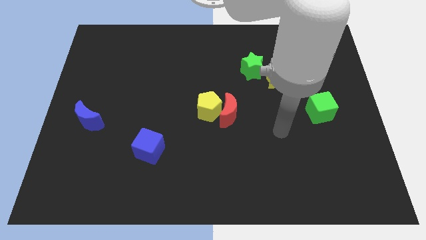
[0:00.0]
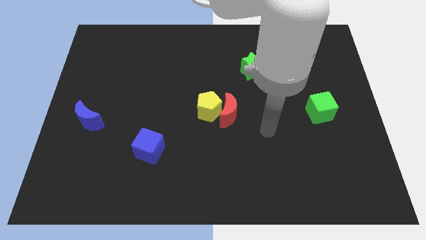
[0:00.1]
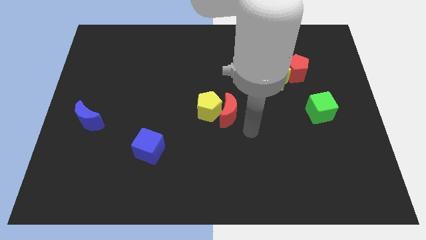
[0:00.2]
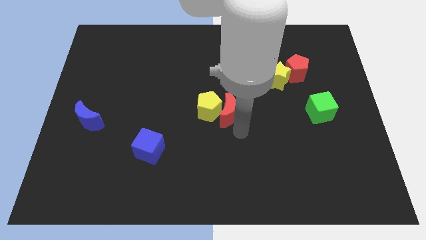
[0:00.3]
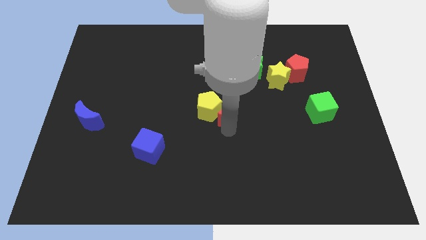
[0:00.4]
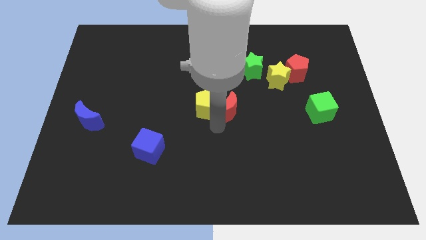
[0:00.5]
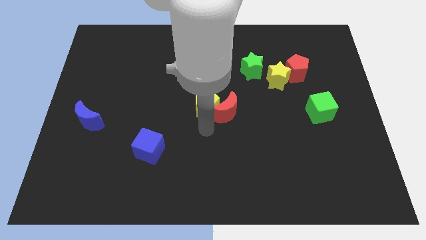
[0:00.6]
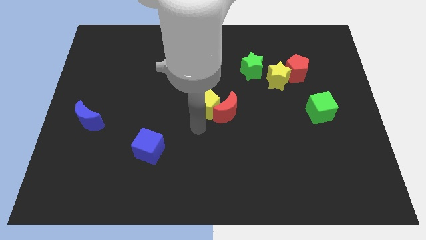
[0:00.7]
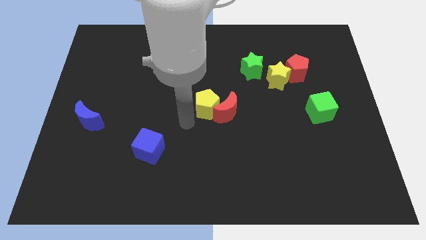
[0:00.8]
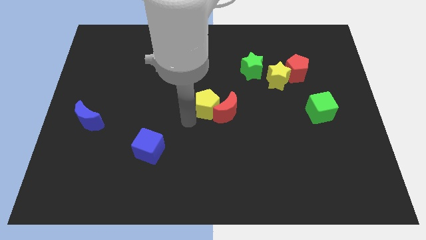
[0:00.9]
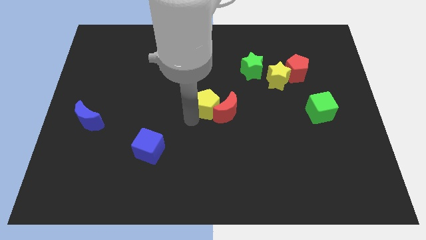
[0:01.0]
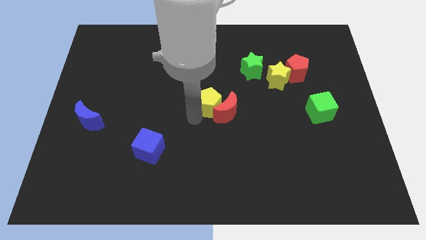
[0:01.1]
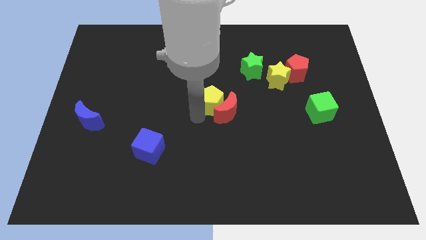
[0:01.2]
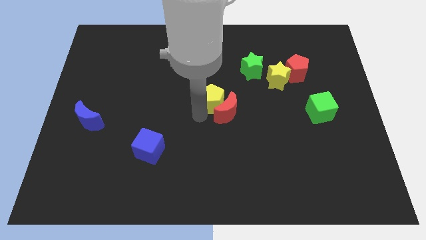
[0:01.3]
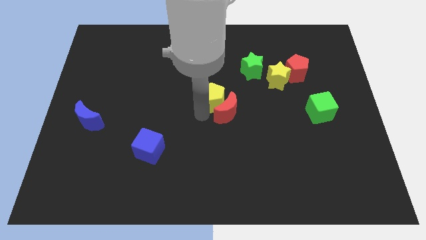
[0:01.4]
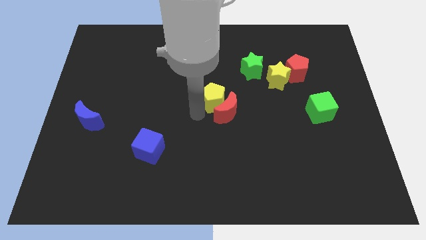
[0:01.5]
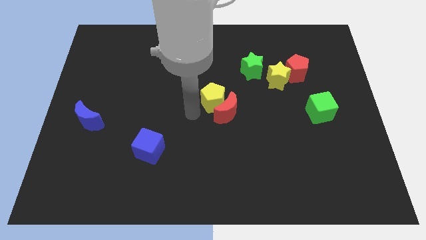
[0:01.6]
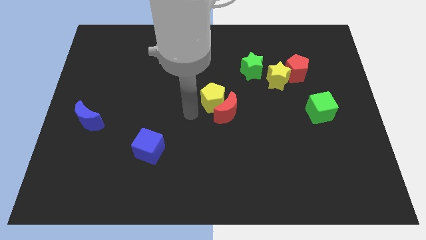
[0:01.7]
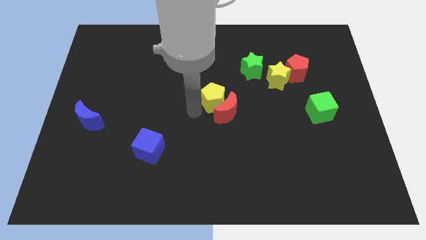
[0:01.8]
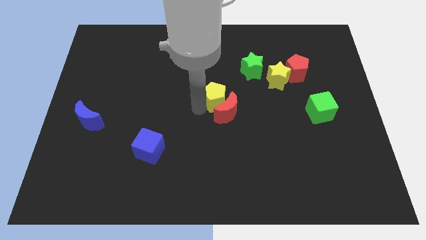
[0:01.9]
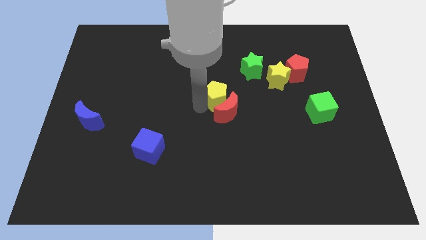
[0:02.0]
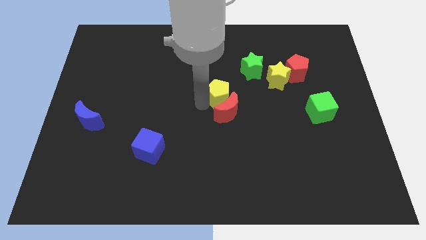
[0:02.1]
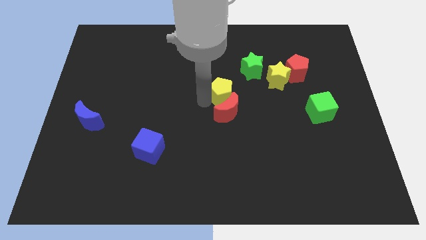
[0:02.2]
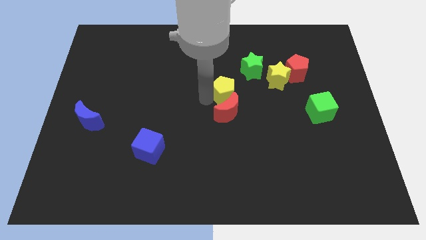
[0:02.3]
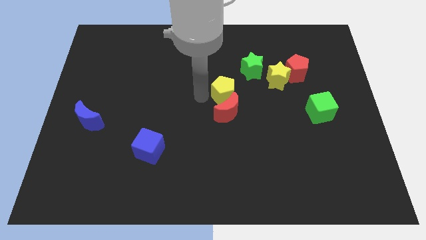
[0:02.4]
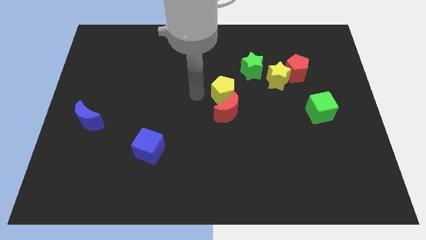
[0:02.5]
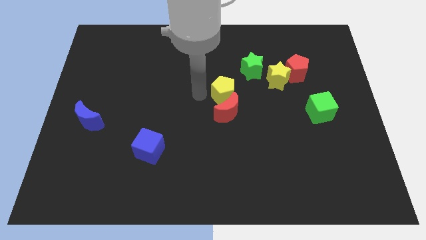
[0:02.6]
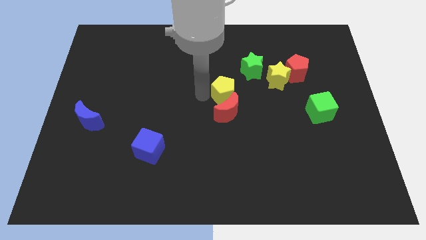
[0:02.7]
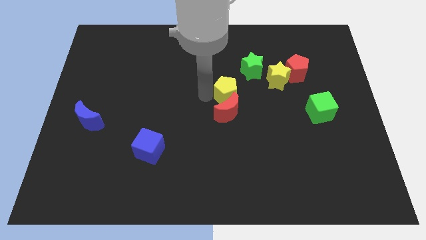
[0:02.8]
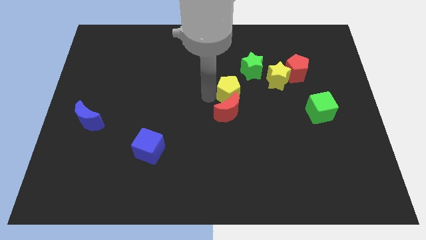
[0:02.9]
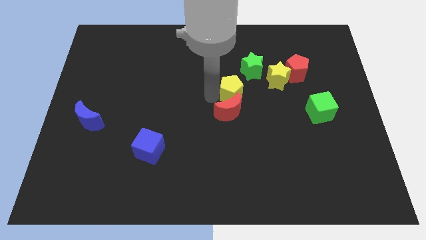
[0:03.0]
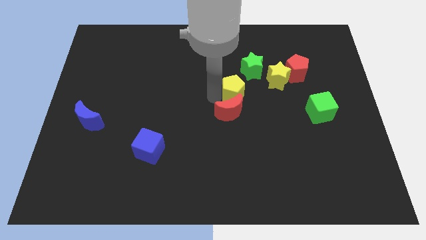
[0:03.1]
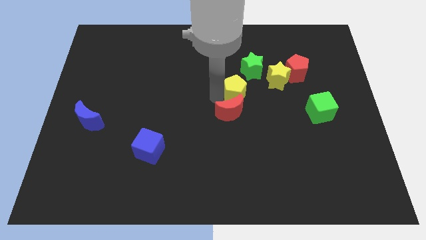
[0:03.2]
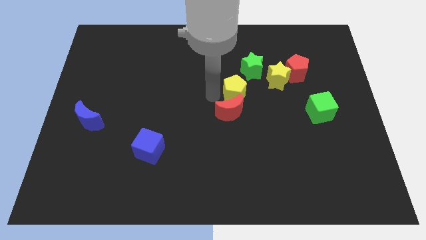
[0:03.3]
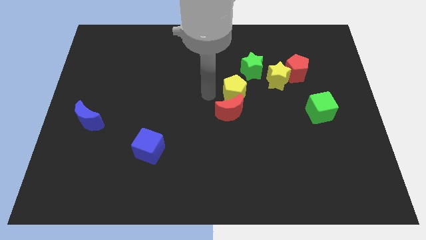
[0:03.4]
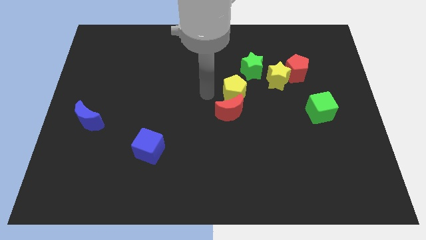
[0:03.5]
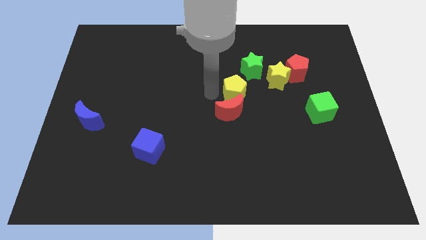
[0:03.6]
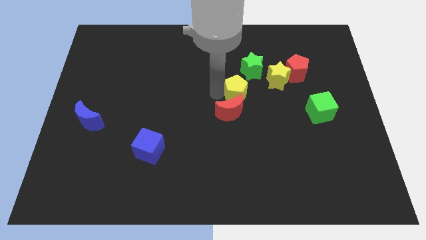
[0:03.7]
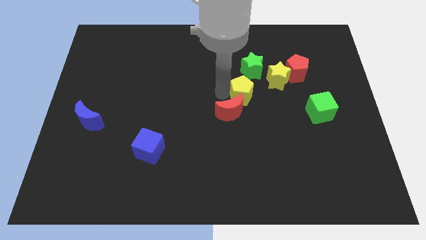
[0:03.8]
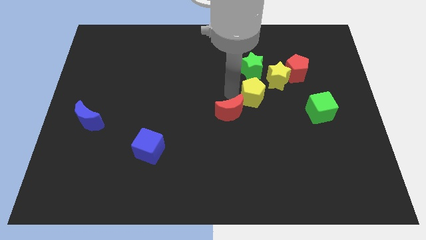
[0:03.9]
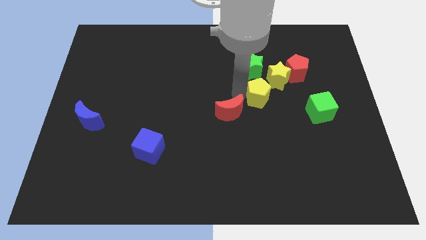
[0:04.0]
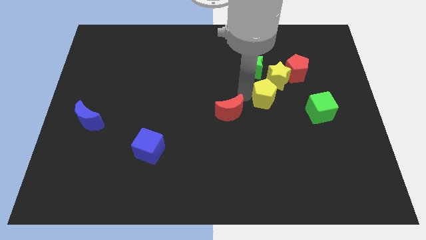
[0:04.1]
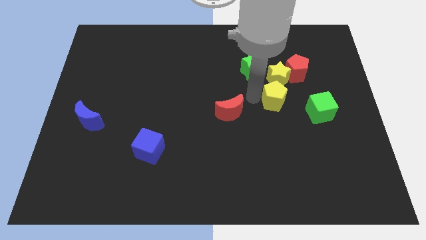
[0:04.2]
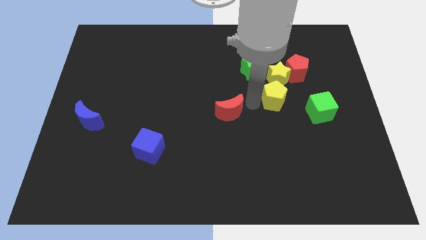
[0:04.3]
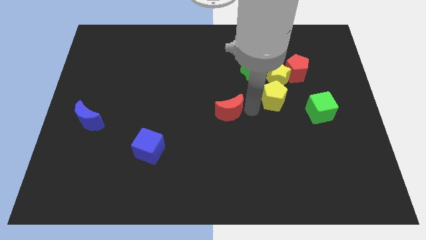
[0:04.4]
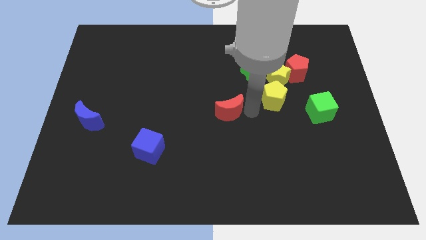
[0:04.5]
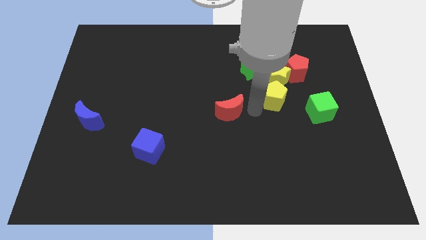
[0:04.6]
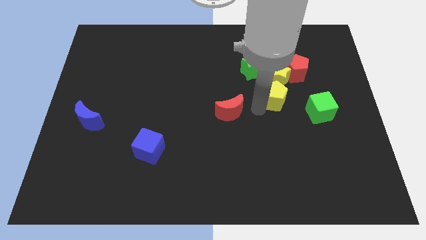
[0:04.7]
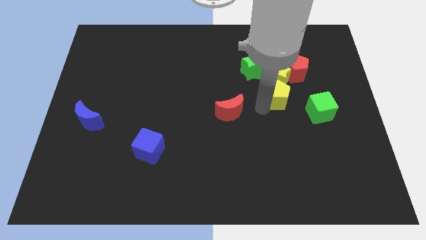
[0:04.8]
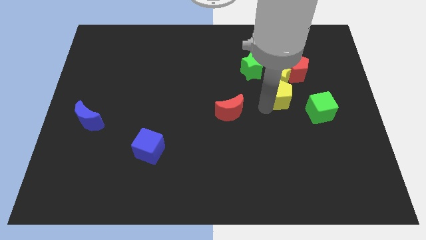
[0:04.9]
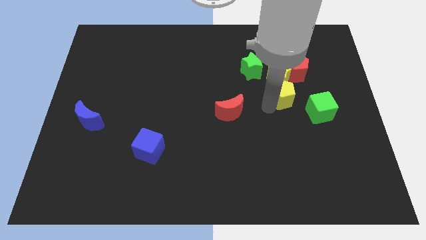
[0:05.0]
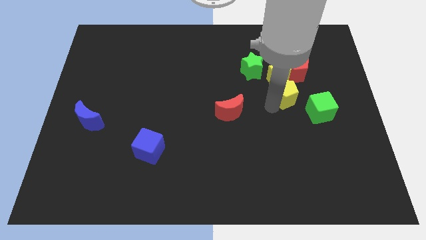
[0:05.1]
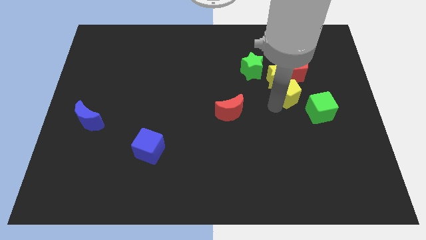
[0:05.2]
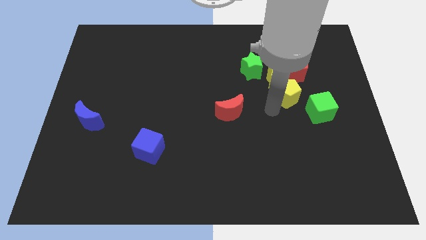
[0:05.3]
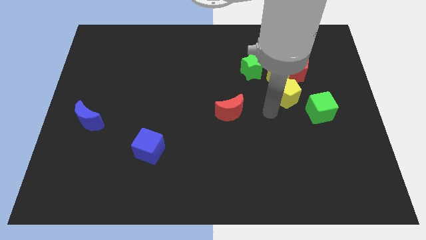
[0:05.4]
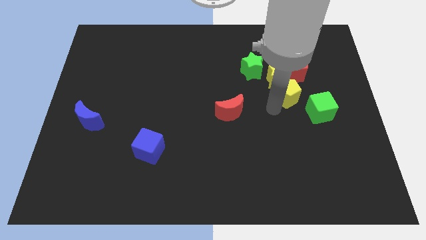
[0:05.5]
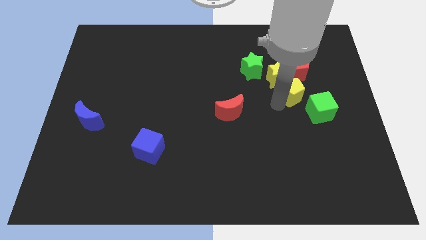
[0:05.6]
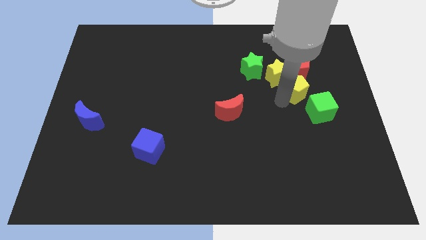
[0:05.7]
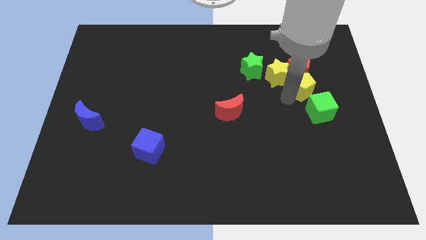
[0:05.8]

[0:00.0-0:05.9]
slide the yellow pentagon close to the red pentagon

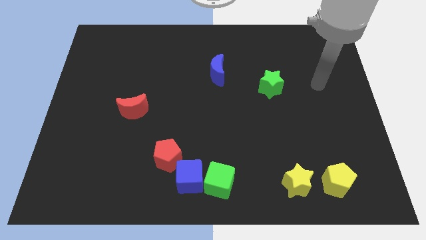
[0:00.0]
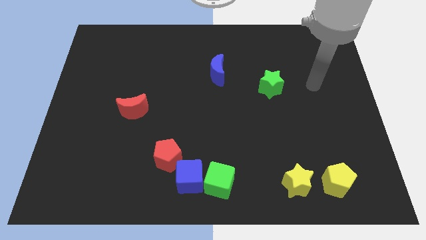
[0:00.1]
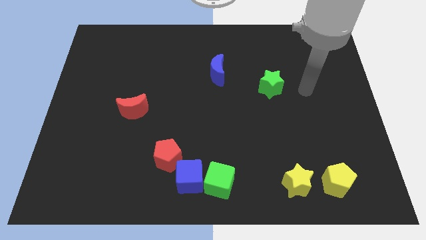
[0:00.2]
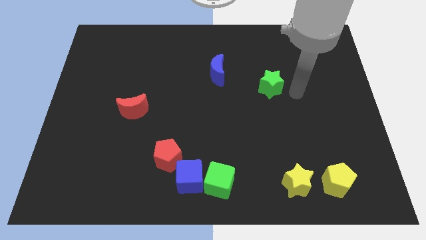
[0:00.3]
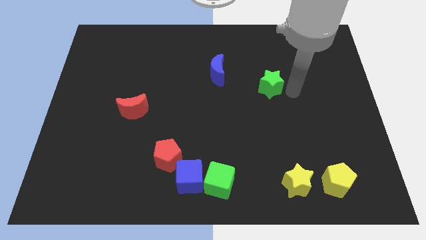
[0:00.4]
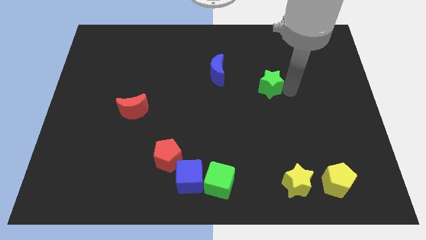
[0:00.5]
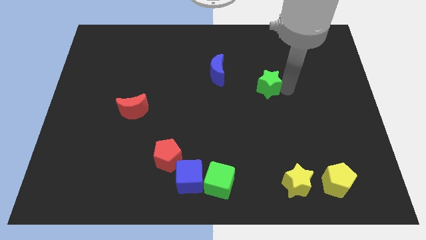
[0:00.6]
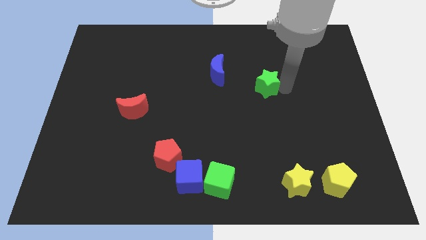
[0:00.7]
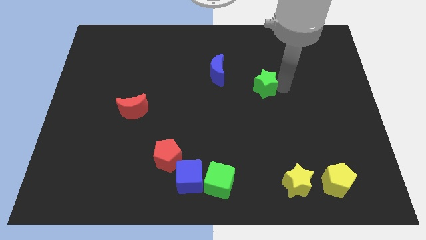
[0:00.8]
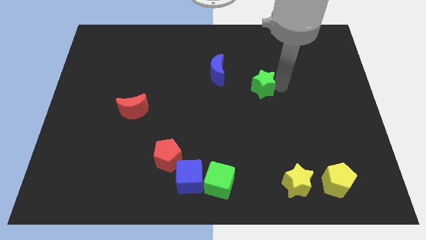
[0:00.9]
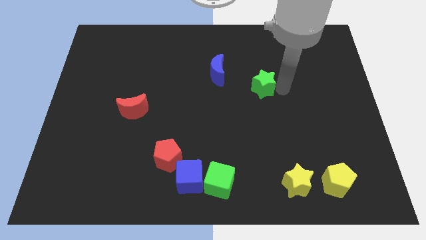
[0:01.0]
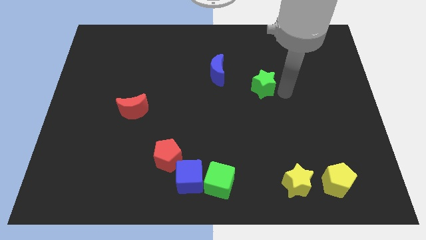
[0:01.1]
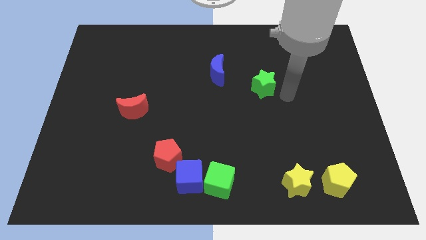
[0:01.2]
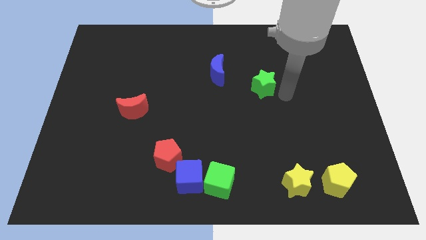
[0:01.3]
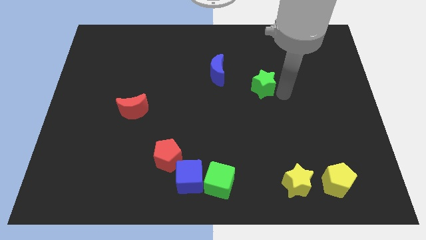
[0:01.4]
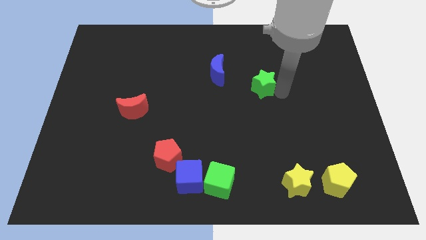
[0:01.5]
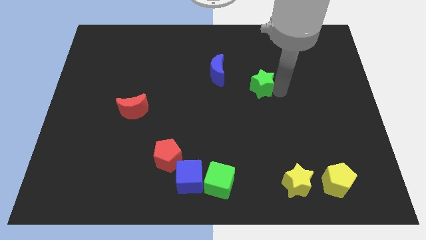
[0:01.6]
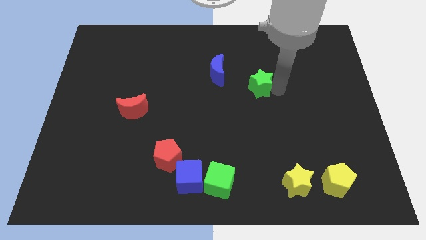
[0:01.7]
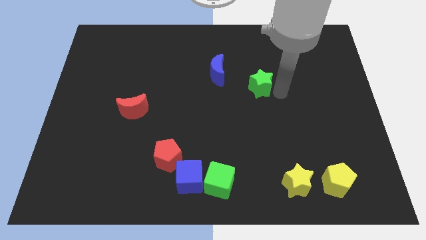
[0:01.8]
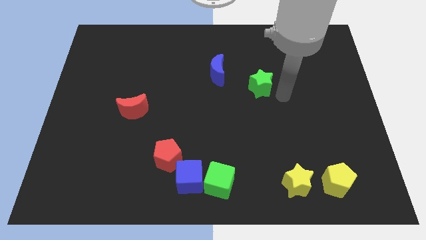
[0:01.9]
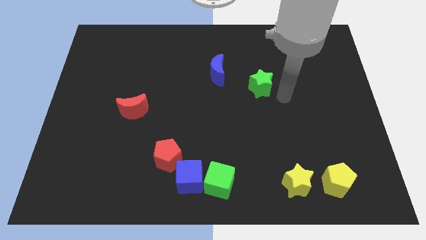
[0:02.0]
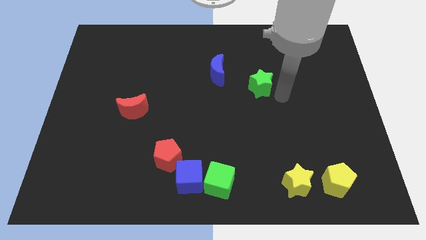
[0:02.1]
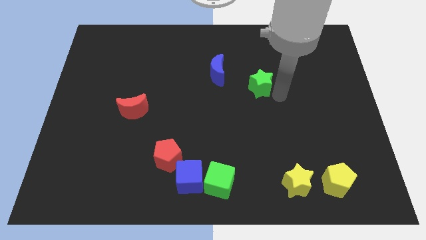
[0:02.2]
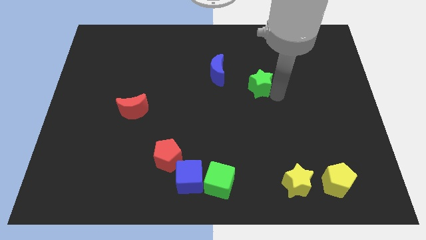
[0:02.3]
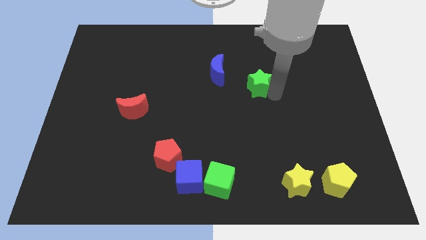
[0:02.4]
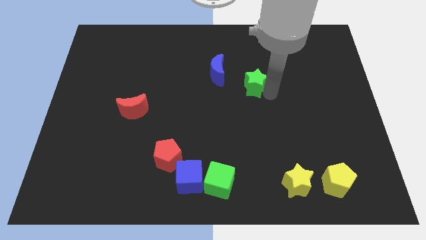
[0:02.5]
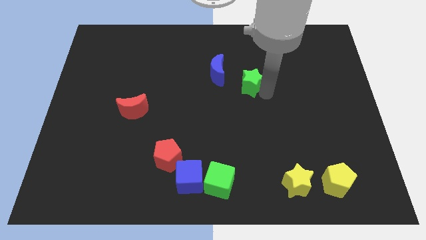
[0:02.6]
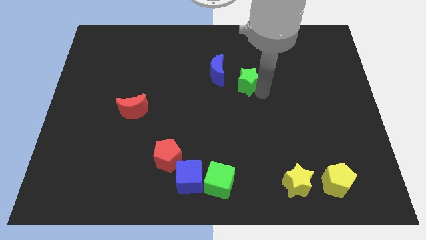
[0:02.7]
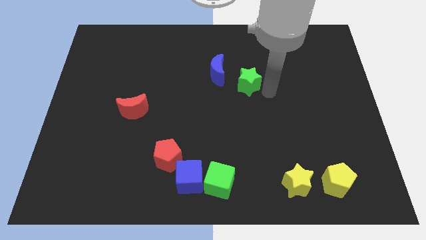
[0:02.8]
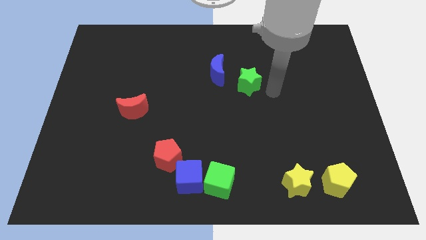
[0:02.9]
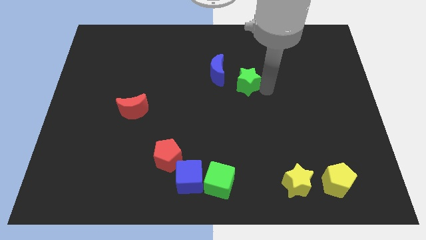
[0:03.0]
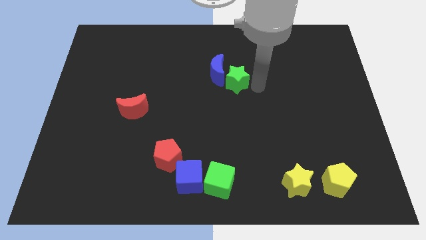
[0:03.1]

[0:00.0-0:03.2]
slide the green star towards the blue moon
